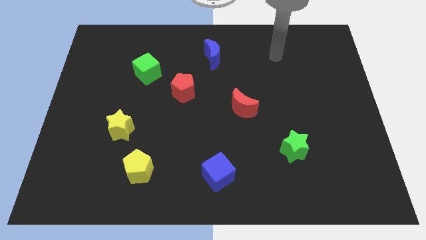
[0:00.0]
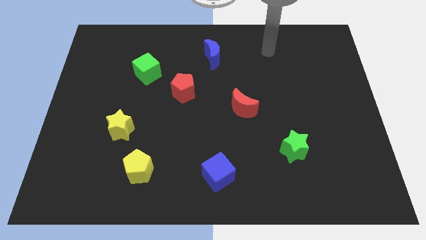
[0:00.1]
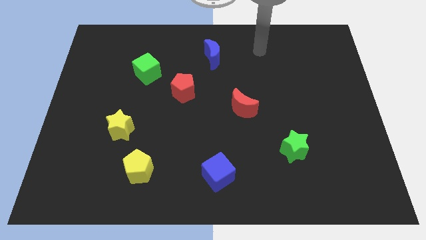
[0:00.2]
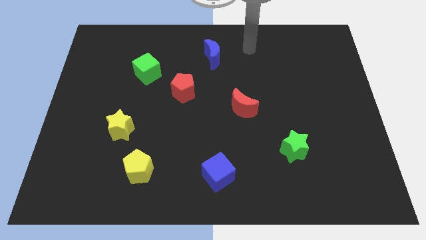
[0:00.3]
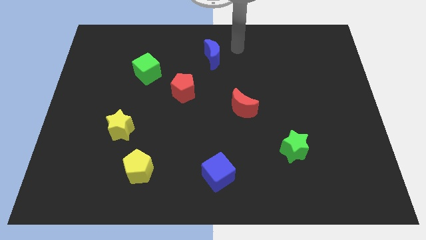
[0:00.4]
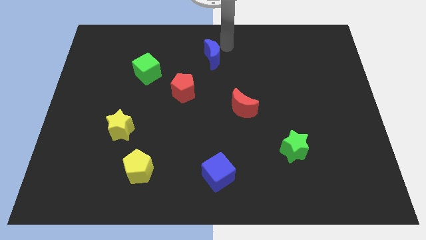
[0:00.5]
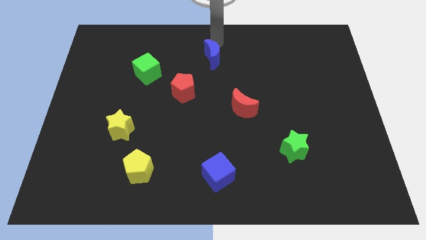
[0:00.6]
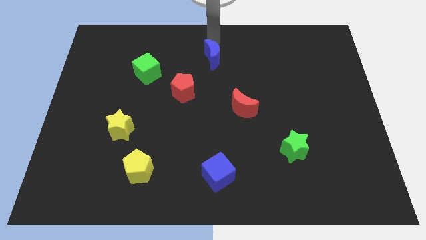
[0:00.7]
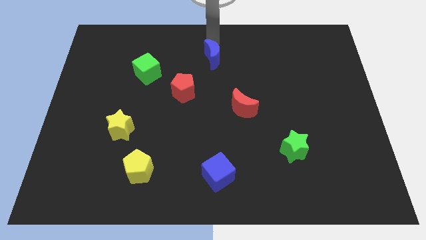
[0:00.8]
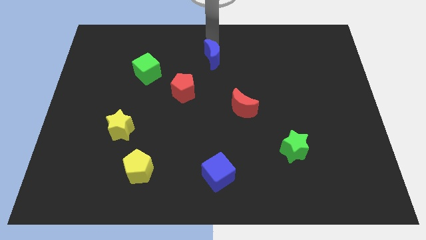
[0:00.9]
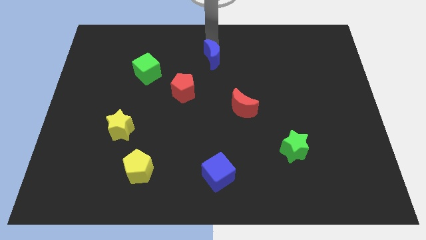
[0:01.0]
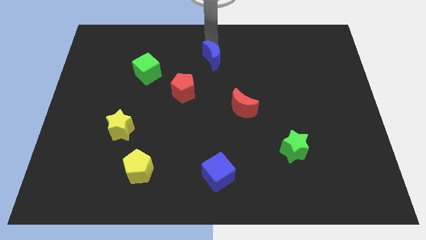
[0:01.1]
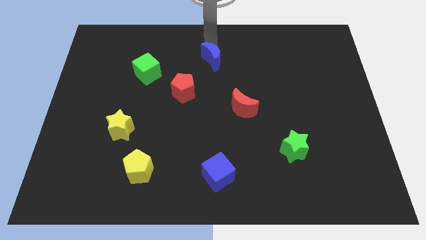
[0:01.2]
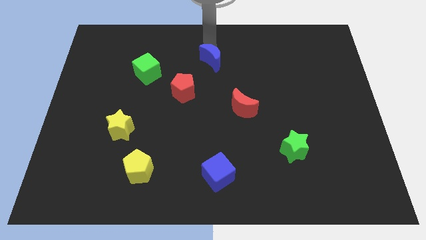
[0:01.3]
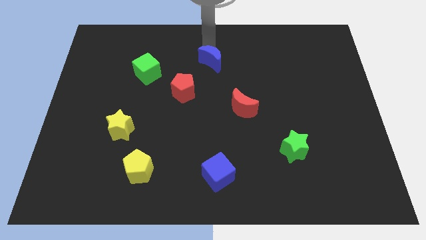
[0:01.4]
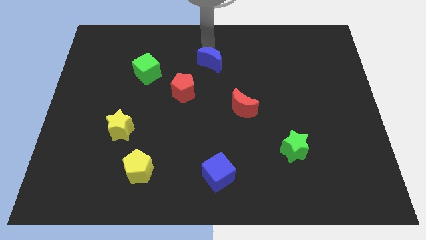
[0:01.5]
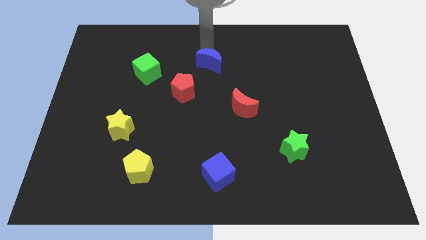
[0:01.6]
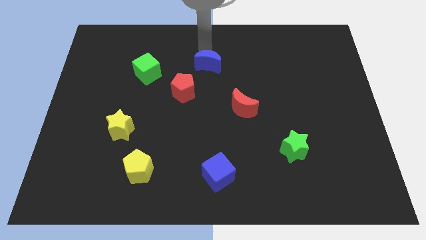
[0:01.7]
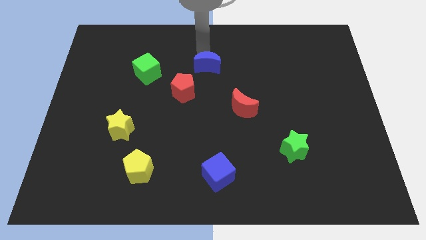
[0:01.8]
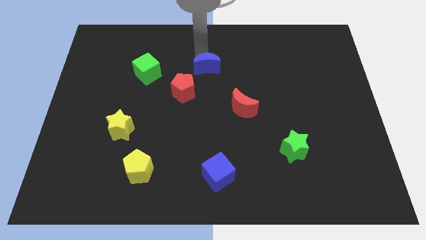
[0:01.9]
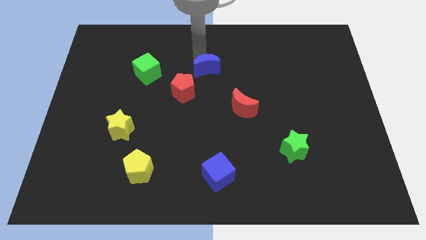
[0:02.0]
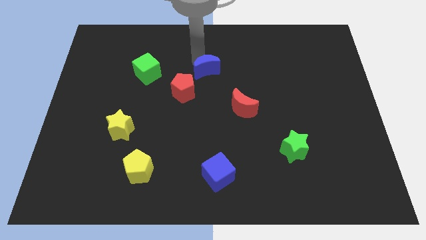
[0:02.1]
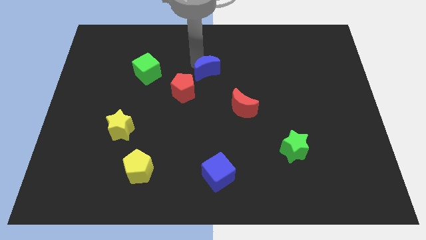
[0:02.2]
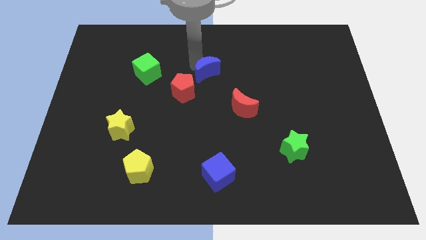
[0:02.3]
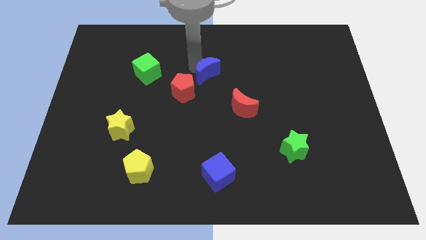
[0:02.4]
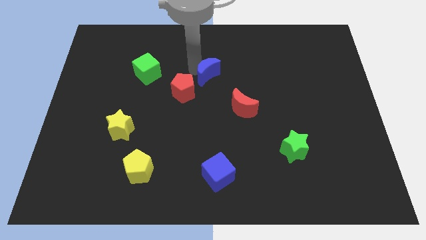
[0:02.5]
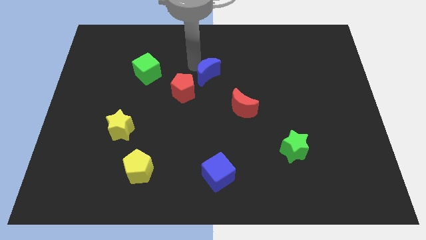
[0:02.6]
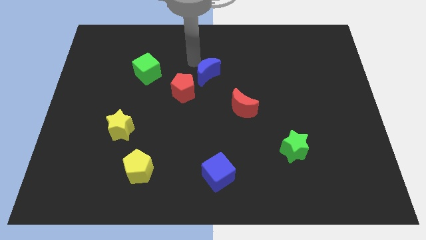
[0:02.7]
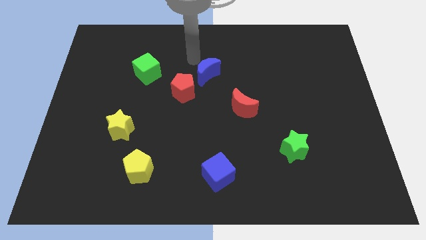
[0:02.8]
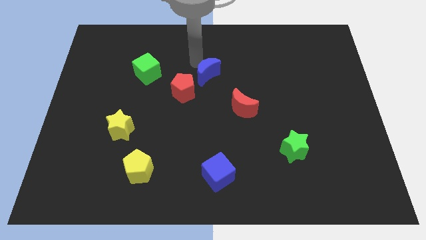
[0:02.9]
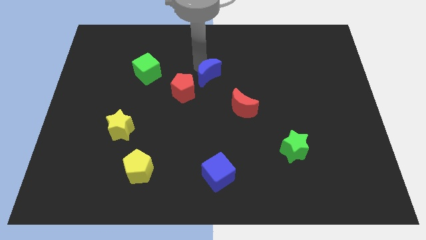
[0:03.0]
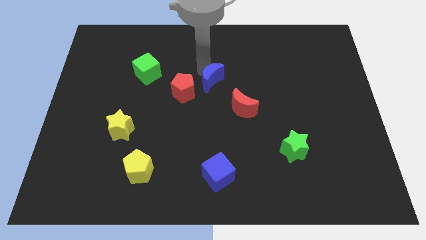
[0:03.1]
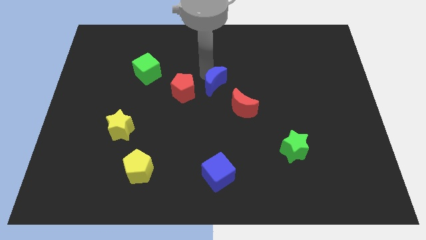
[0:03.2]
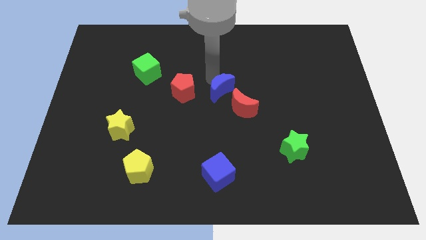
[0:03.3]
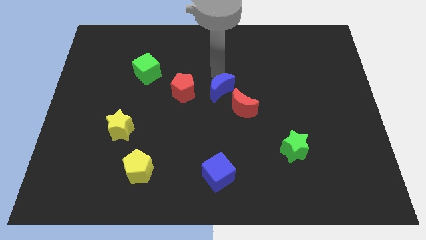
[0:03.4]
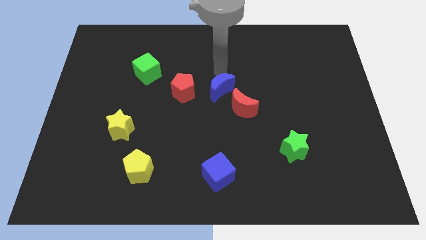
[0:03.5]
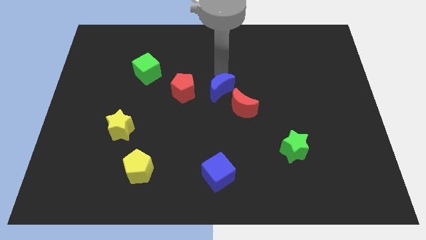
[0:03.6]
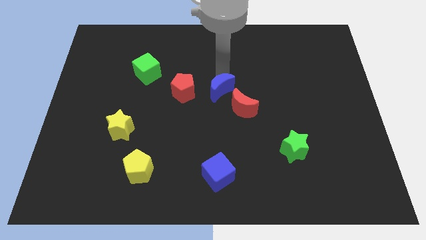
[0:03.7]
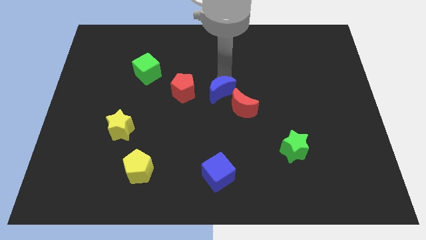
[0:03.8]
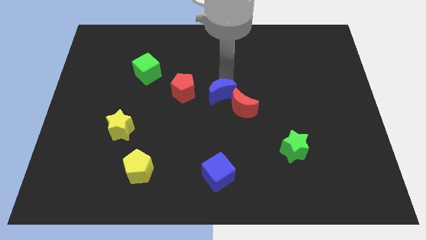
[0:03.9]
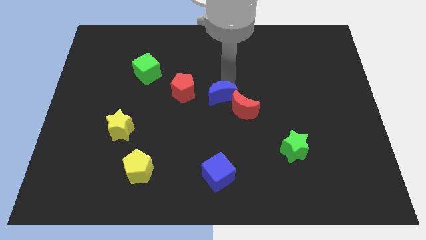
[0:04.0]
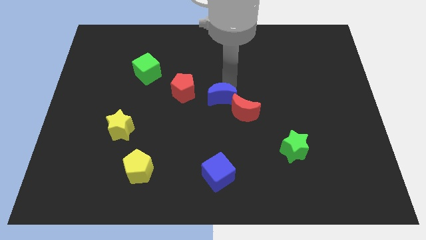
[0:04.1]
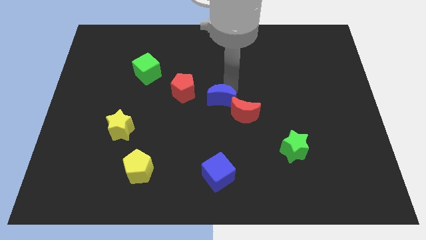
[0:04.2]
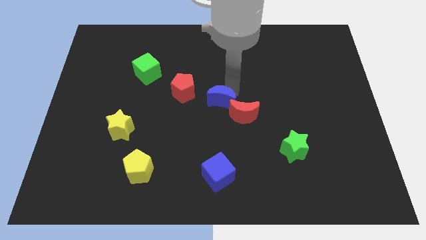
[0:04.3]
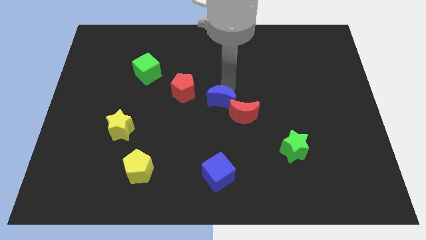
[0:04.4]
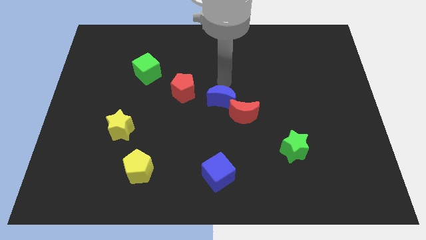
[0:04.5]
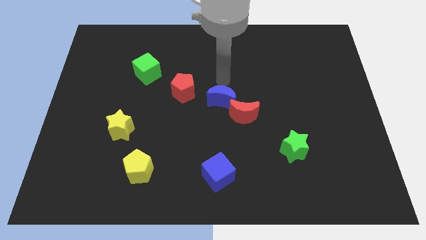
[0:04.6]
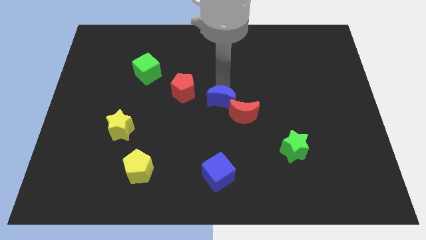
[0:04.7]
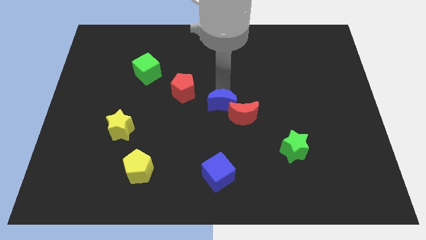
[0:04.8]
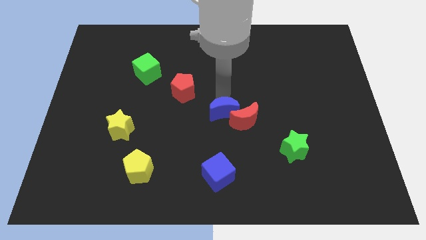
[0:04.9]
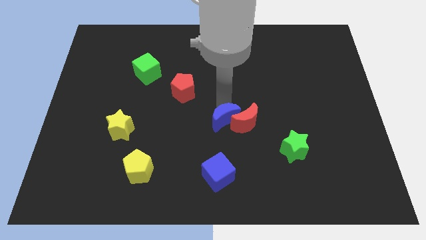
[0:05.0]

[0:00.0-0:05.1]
move the blue moon diagonally down and to the left of the red moon

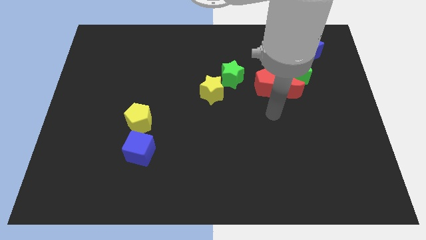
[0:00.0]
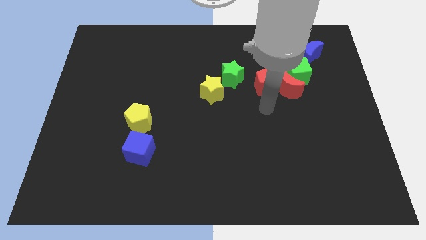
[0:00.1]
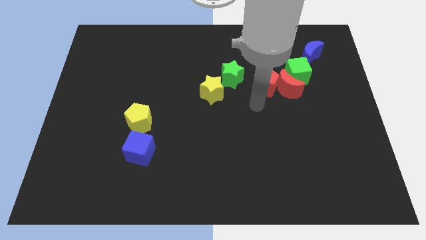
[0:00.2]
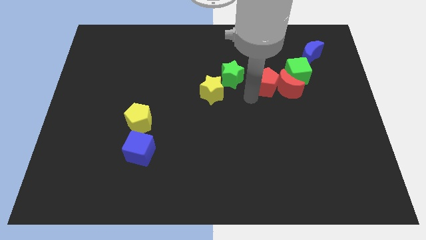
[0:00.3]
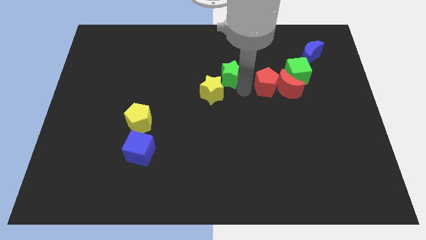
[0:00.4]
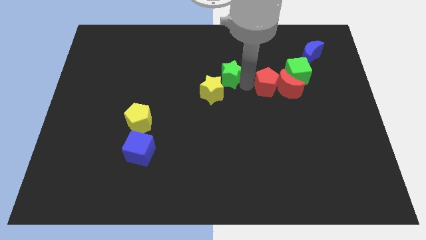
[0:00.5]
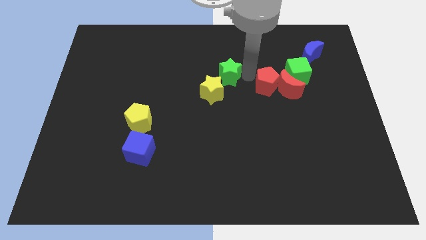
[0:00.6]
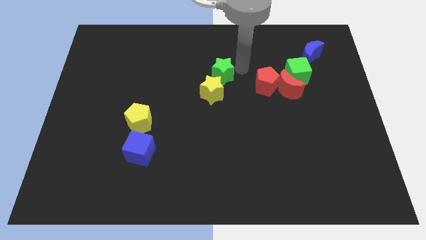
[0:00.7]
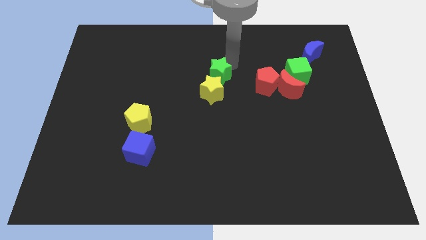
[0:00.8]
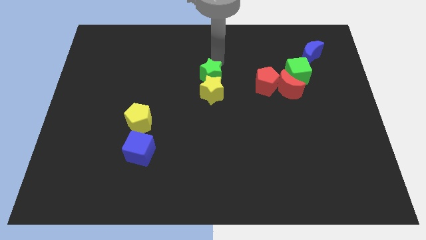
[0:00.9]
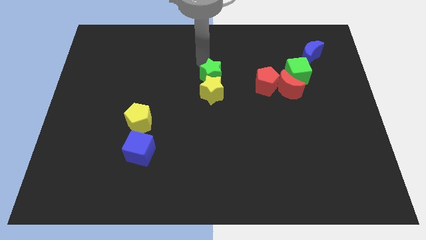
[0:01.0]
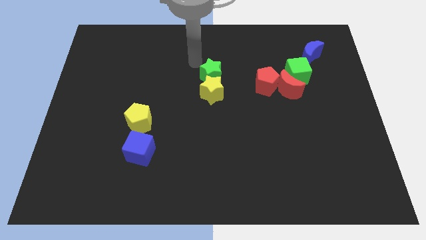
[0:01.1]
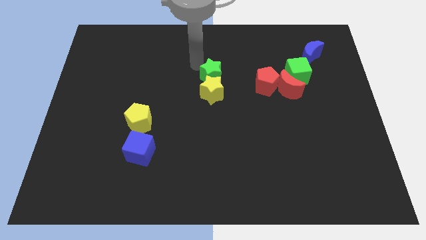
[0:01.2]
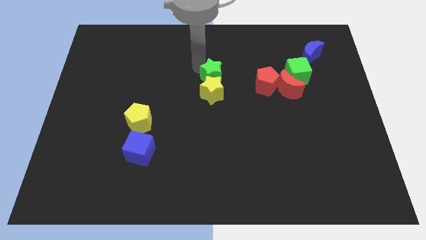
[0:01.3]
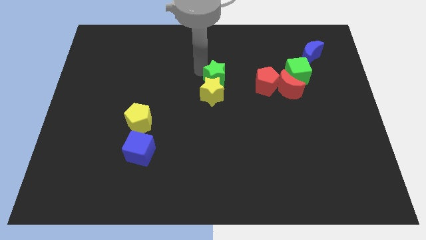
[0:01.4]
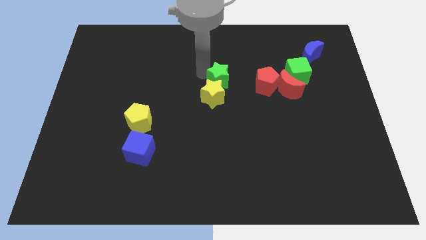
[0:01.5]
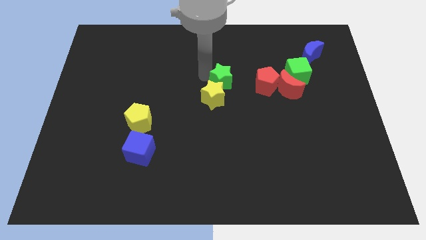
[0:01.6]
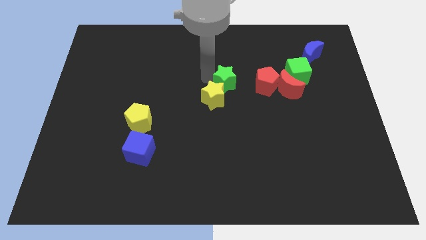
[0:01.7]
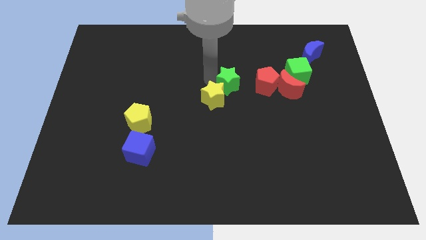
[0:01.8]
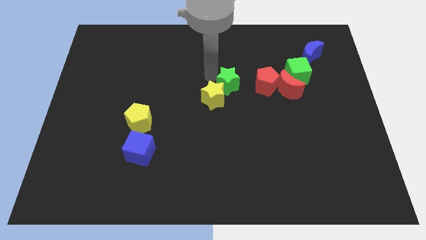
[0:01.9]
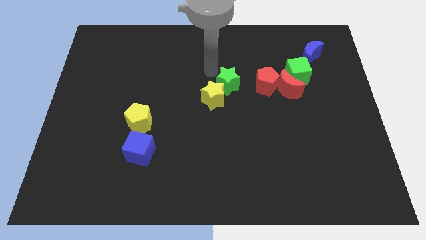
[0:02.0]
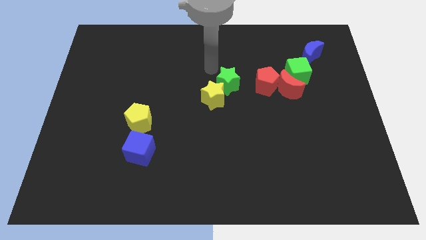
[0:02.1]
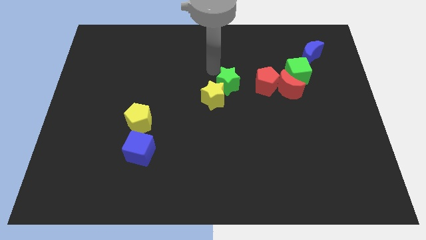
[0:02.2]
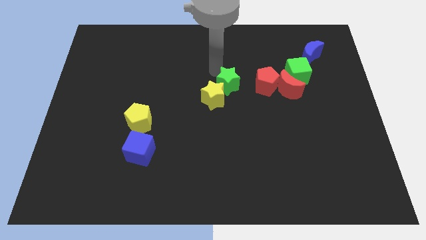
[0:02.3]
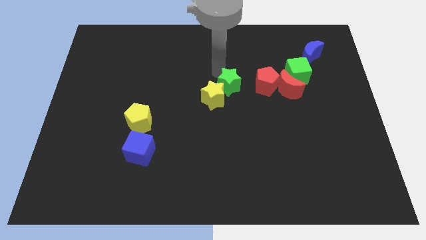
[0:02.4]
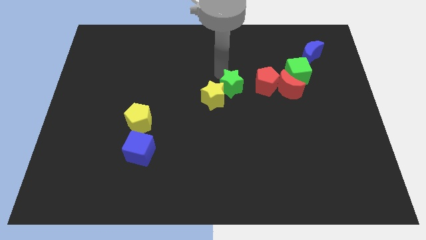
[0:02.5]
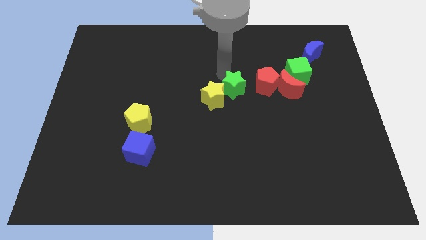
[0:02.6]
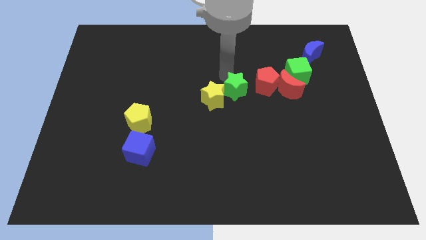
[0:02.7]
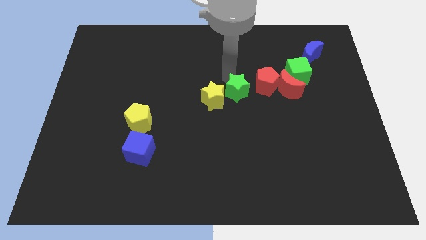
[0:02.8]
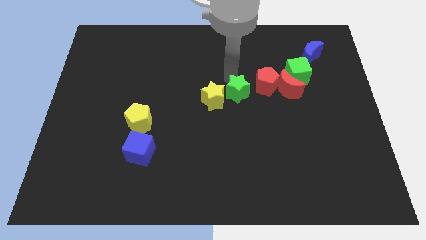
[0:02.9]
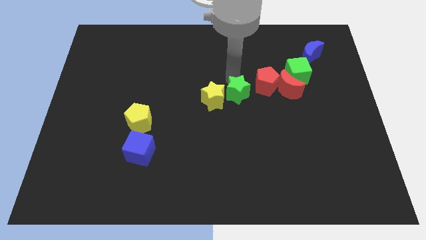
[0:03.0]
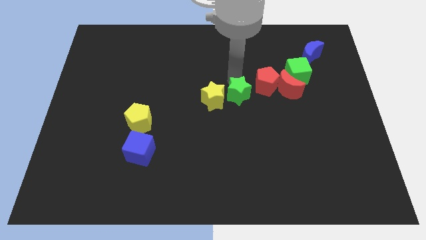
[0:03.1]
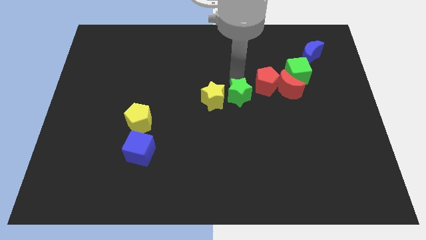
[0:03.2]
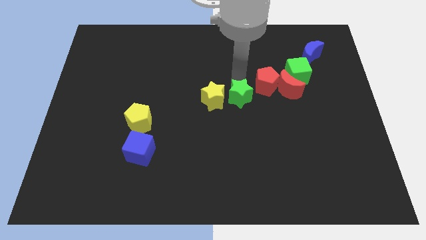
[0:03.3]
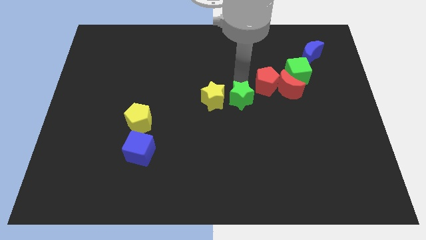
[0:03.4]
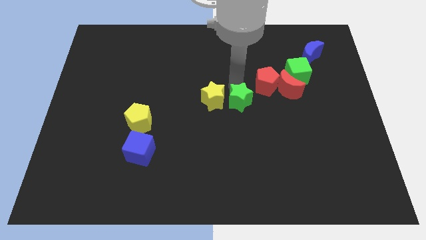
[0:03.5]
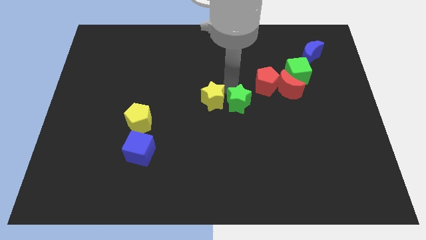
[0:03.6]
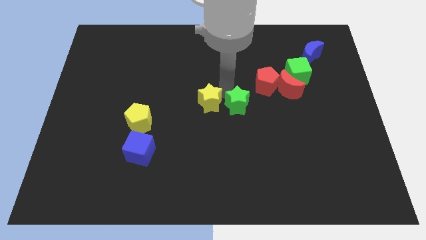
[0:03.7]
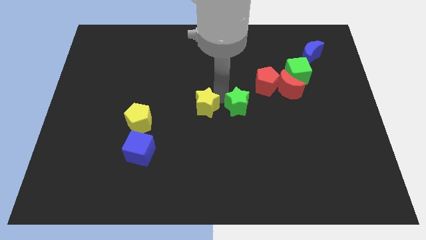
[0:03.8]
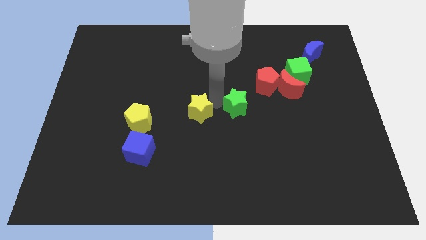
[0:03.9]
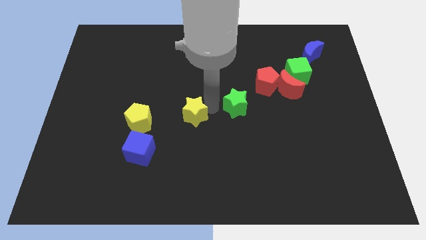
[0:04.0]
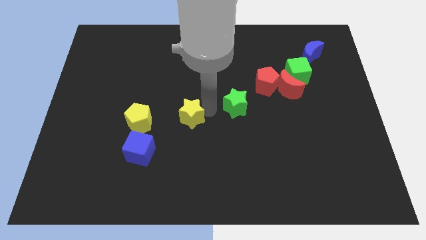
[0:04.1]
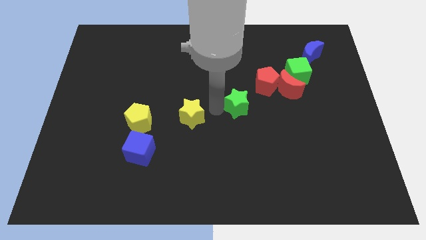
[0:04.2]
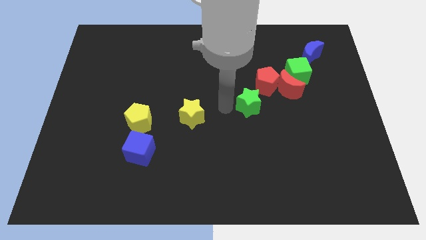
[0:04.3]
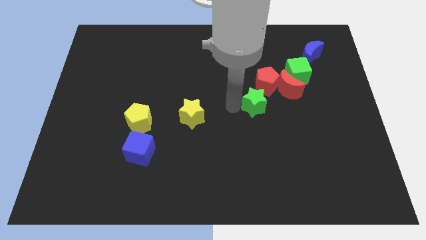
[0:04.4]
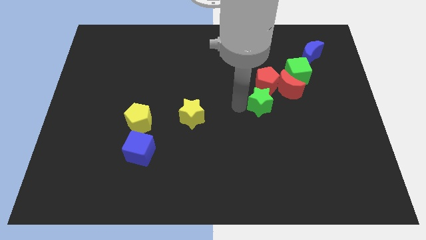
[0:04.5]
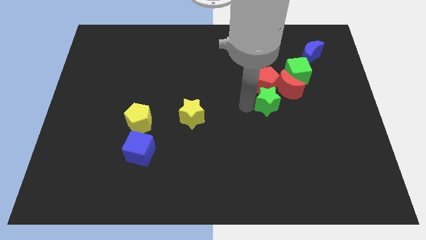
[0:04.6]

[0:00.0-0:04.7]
move the green star to the bottom left of the green cube
